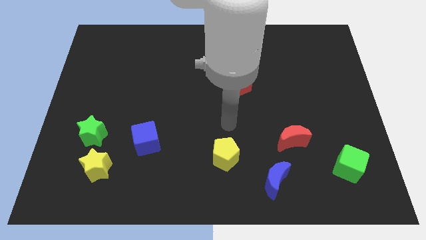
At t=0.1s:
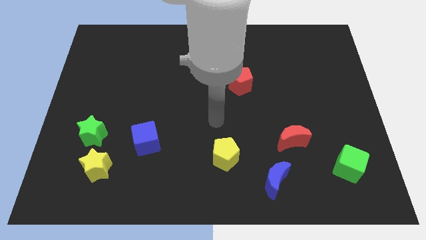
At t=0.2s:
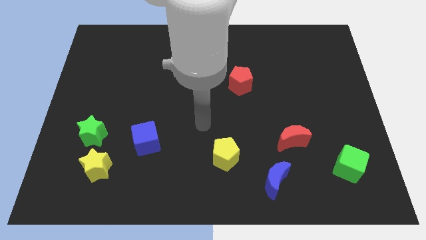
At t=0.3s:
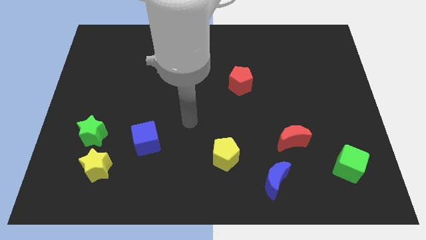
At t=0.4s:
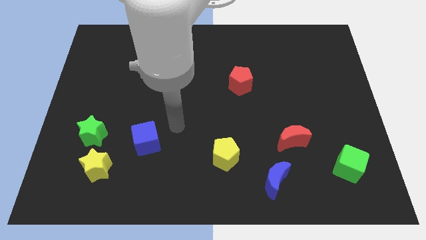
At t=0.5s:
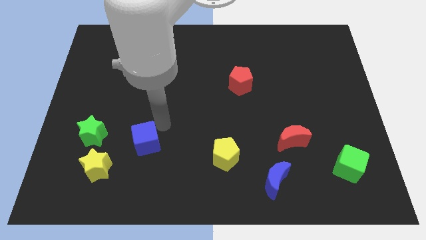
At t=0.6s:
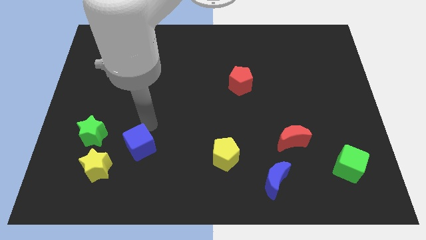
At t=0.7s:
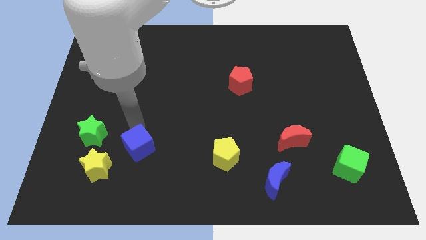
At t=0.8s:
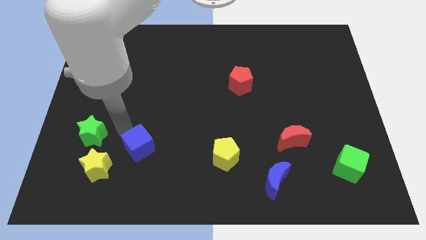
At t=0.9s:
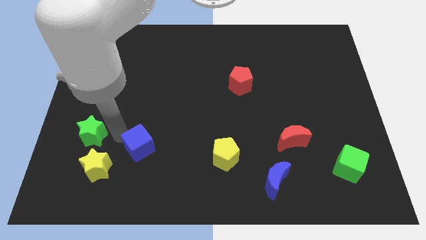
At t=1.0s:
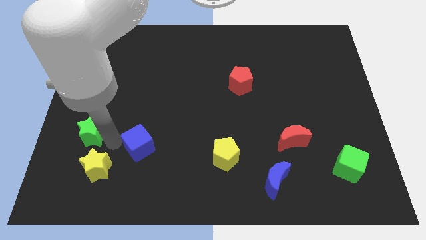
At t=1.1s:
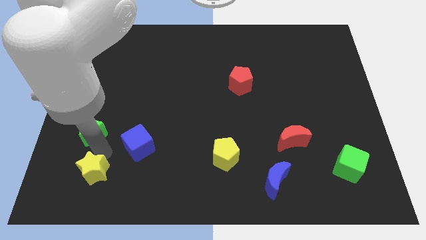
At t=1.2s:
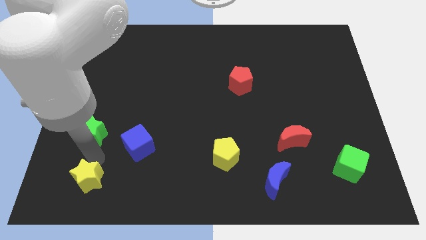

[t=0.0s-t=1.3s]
pull the green star apart from the yellow star

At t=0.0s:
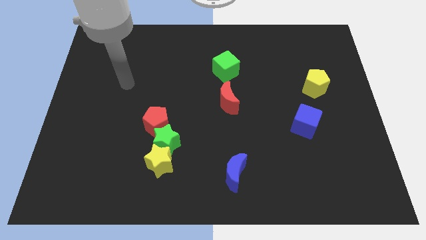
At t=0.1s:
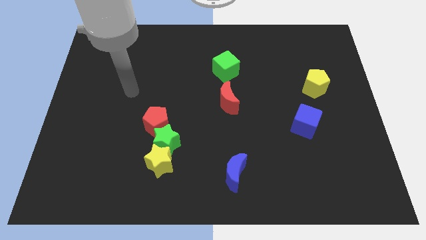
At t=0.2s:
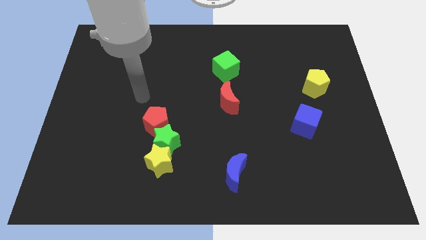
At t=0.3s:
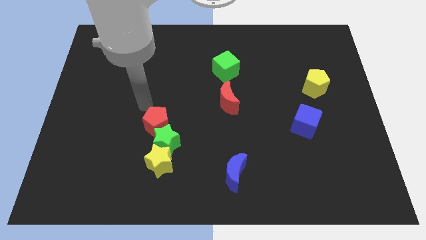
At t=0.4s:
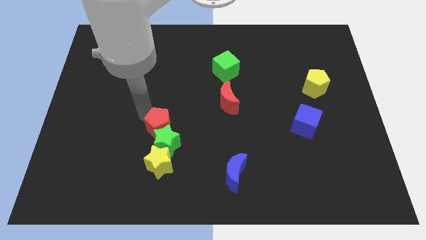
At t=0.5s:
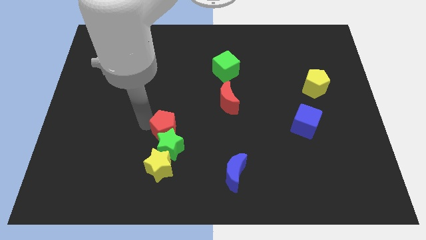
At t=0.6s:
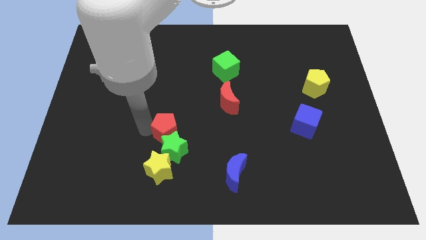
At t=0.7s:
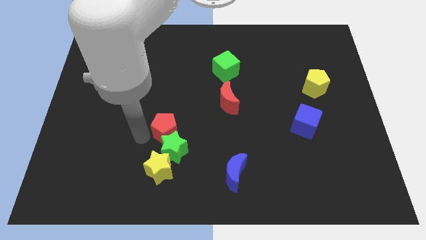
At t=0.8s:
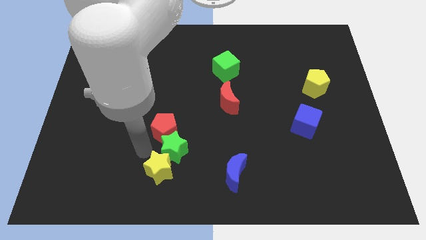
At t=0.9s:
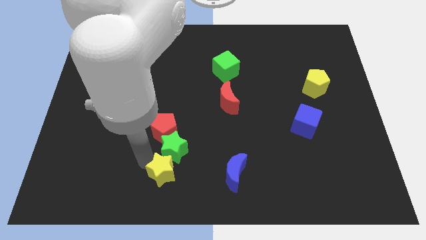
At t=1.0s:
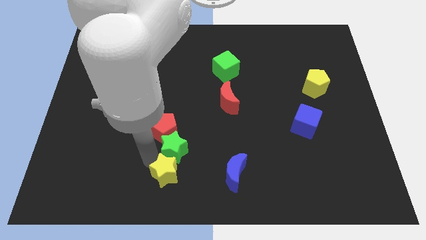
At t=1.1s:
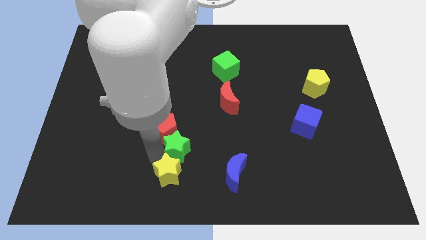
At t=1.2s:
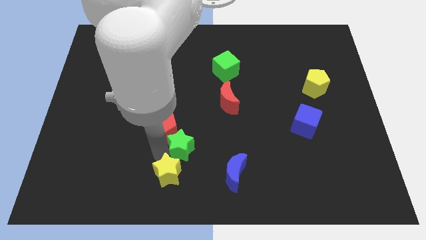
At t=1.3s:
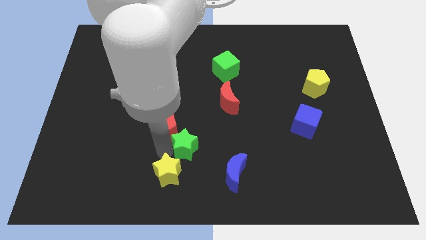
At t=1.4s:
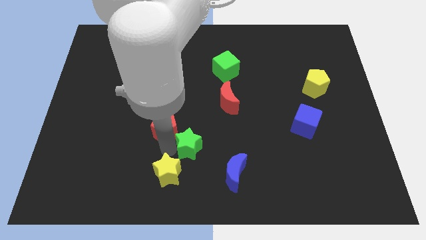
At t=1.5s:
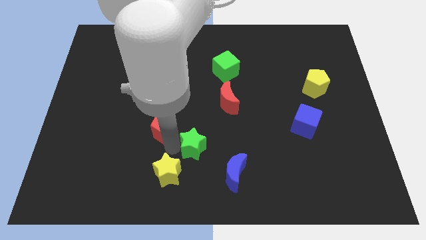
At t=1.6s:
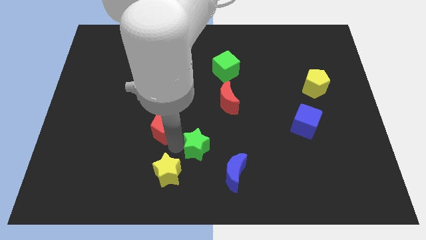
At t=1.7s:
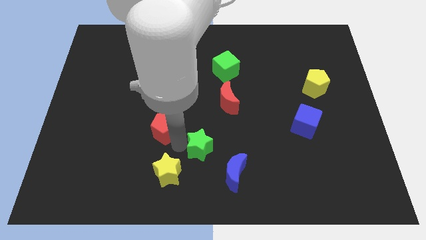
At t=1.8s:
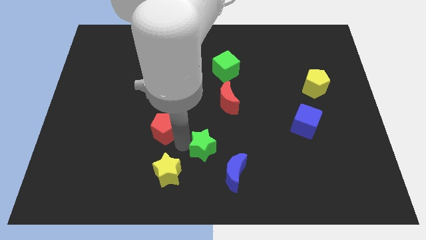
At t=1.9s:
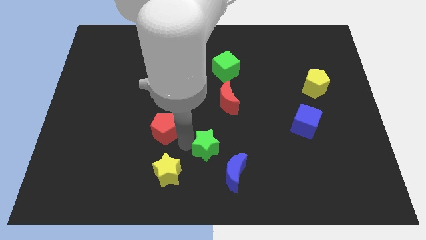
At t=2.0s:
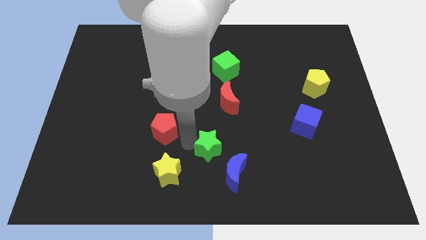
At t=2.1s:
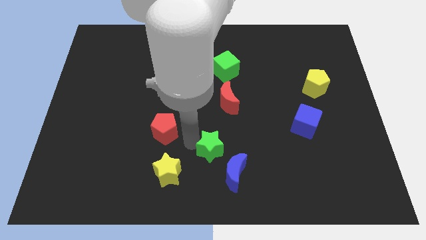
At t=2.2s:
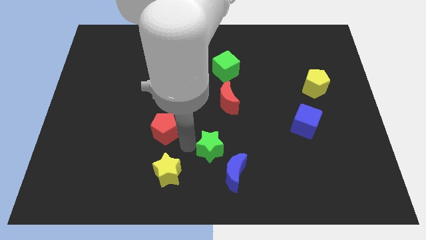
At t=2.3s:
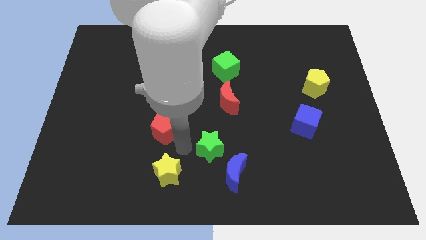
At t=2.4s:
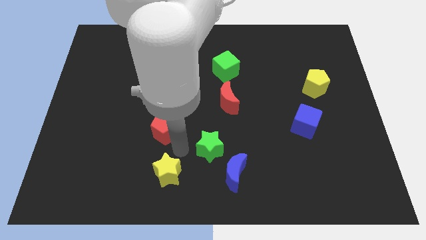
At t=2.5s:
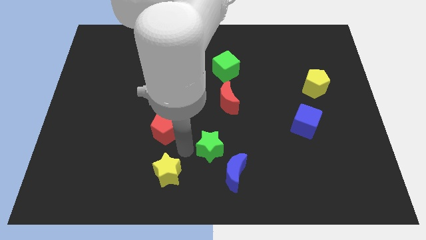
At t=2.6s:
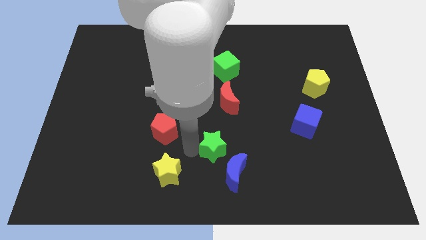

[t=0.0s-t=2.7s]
move the green star away from the yellow star and red pentagon

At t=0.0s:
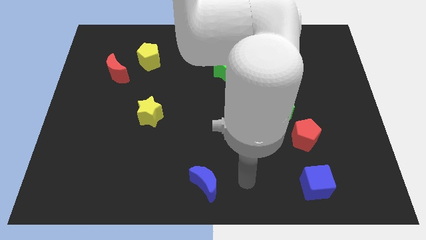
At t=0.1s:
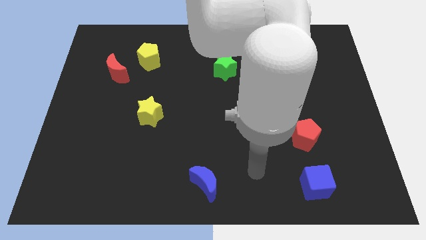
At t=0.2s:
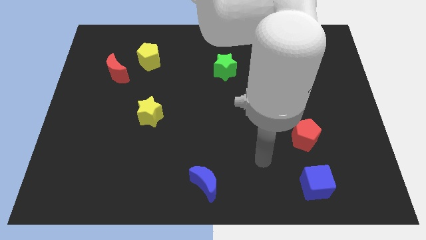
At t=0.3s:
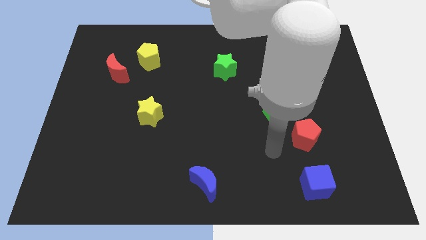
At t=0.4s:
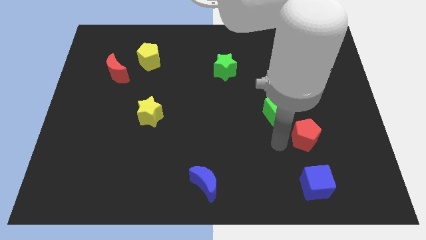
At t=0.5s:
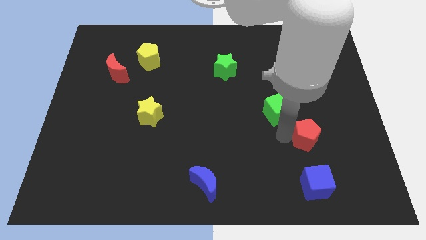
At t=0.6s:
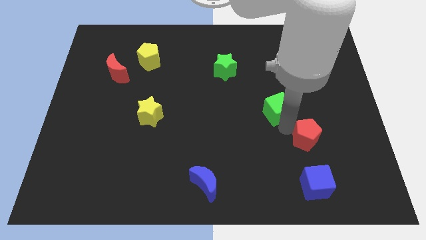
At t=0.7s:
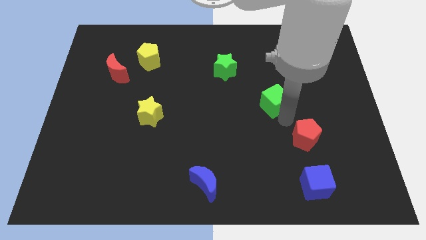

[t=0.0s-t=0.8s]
separate the red pentagon from the green cube

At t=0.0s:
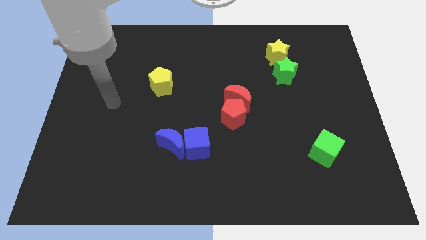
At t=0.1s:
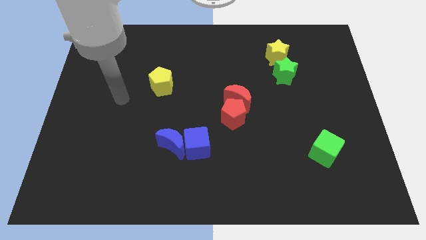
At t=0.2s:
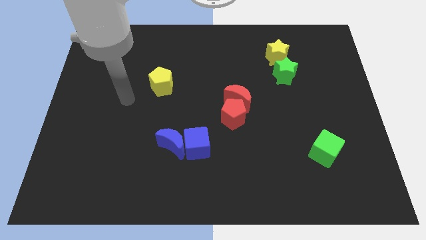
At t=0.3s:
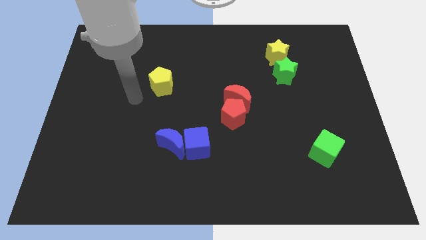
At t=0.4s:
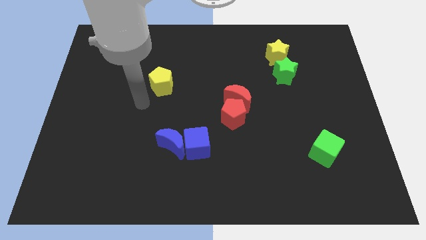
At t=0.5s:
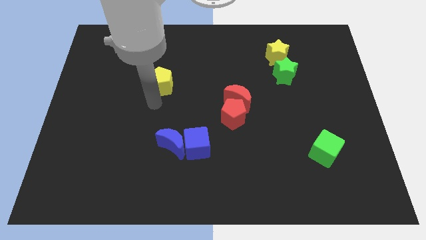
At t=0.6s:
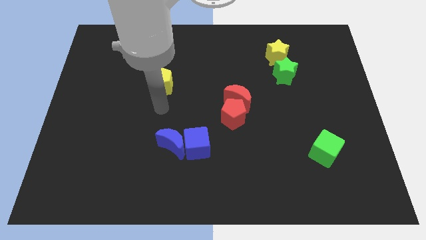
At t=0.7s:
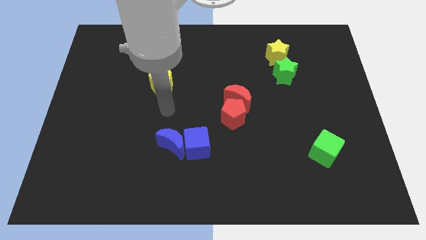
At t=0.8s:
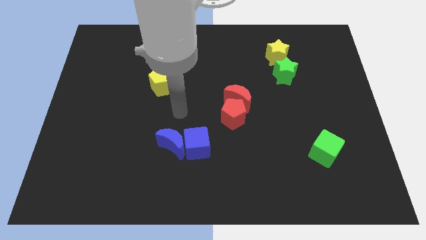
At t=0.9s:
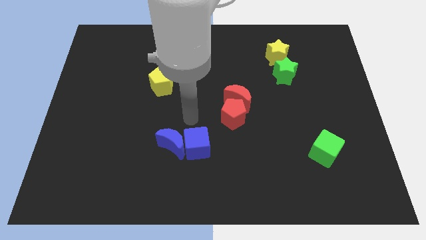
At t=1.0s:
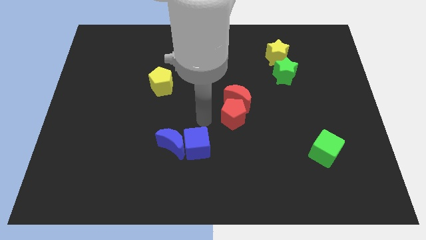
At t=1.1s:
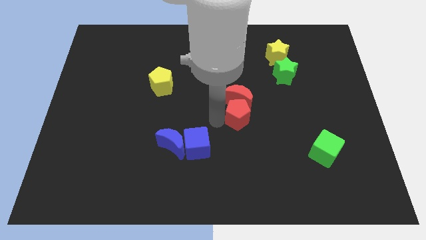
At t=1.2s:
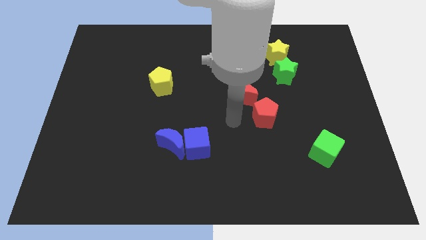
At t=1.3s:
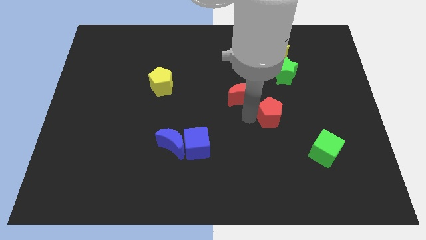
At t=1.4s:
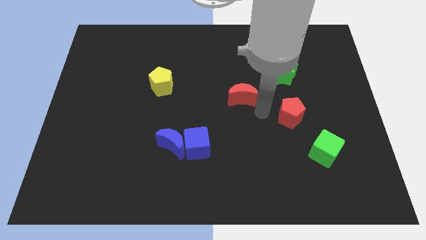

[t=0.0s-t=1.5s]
pull the red moon apart from the red pentagon

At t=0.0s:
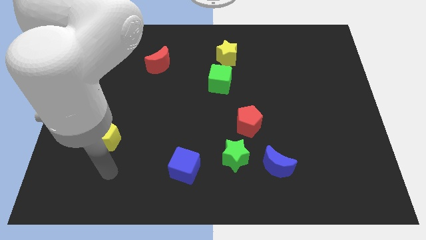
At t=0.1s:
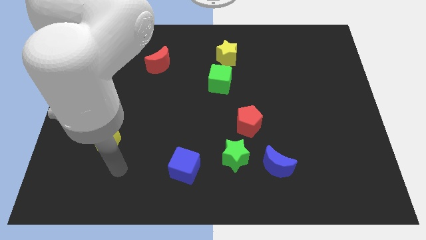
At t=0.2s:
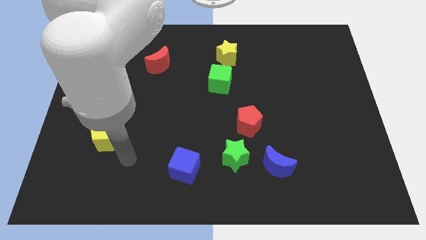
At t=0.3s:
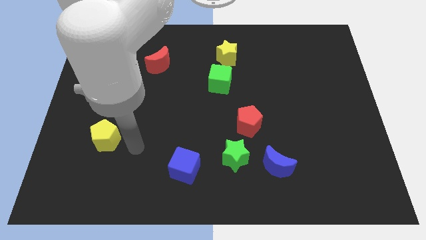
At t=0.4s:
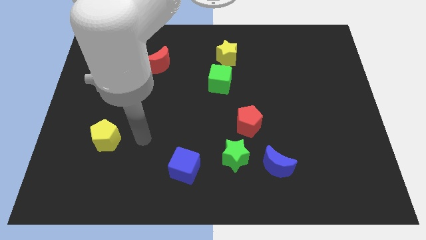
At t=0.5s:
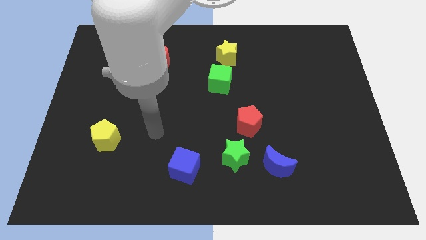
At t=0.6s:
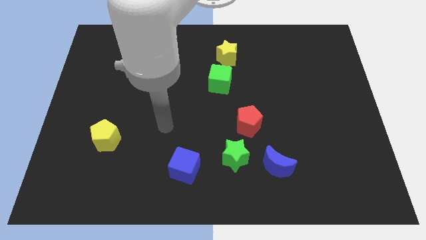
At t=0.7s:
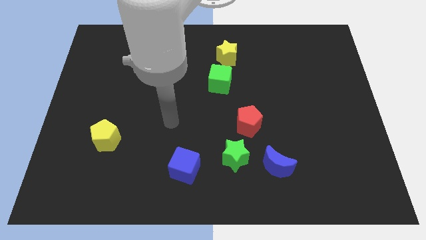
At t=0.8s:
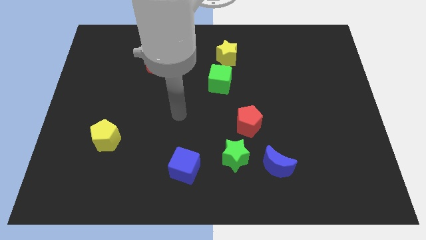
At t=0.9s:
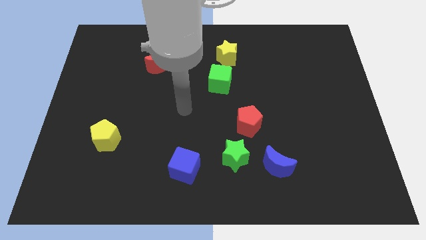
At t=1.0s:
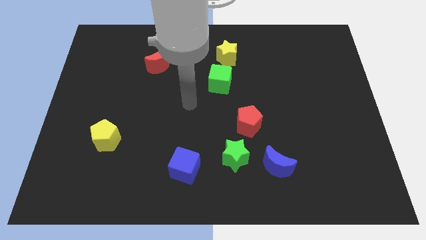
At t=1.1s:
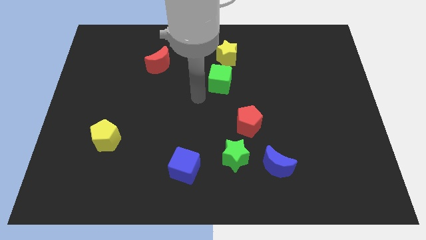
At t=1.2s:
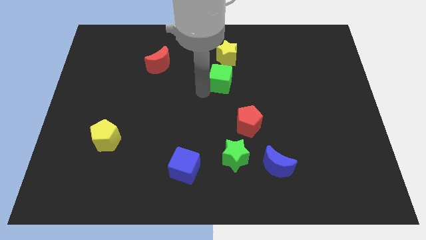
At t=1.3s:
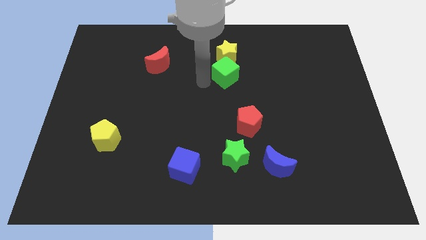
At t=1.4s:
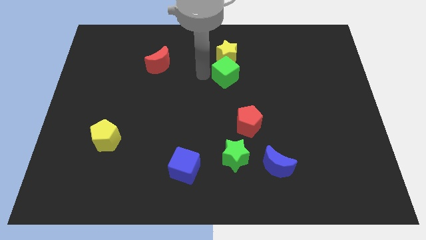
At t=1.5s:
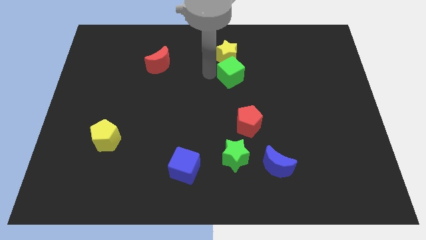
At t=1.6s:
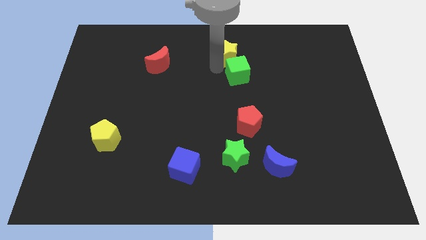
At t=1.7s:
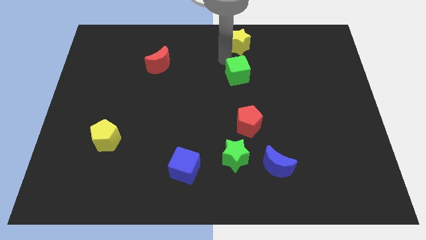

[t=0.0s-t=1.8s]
pull the green cube apart from the yellow star

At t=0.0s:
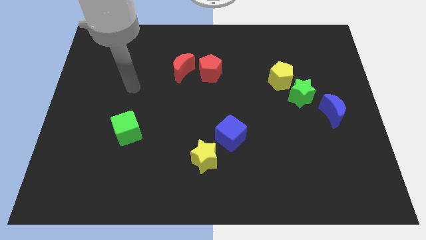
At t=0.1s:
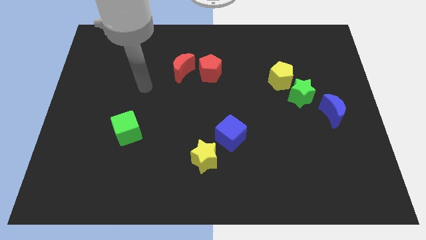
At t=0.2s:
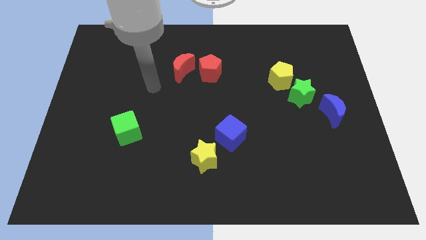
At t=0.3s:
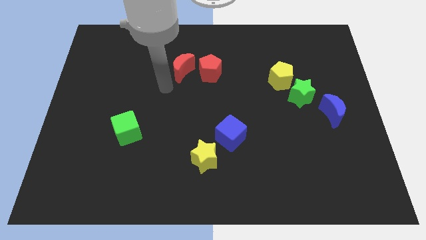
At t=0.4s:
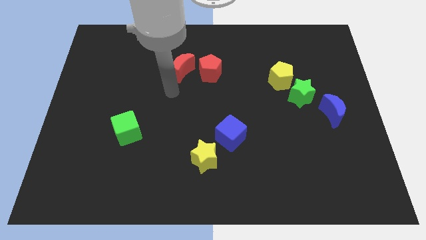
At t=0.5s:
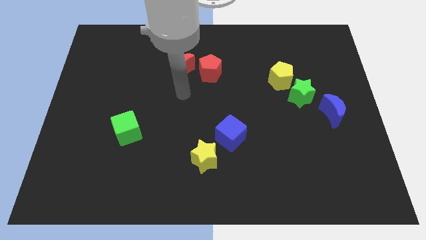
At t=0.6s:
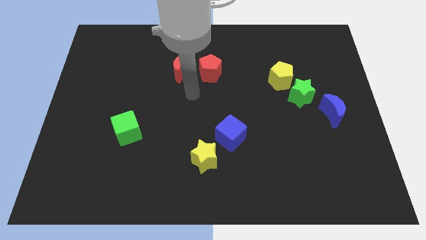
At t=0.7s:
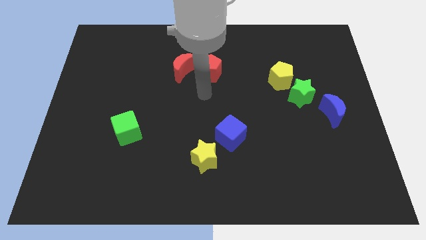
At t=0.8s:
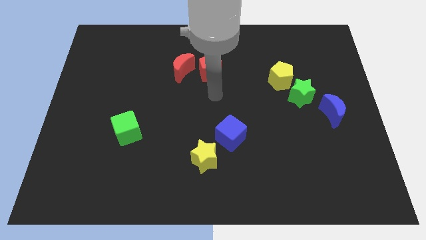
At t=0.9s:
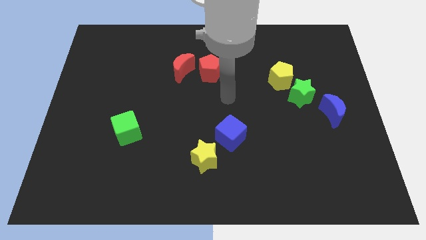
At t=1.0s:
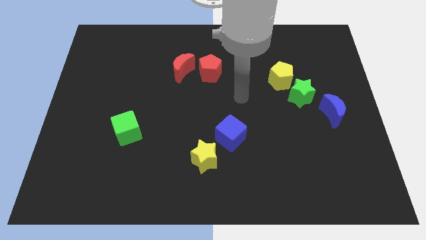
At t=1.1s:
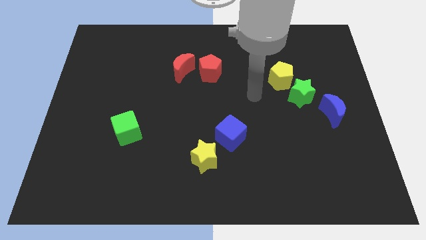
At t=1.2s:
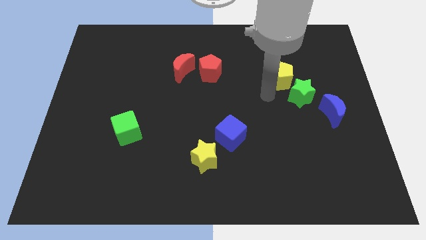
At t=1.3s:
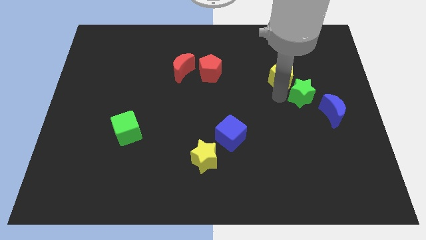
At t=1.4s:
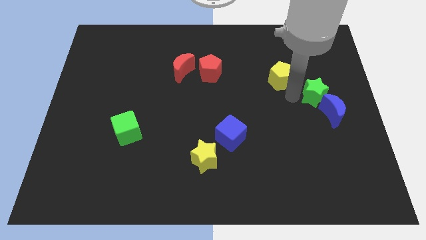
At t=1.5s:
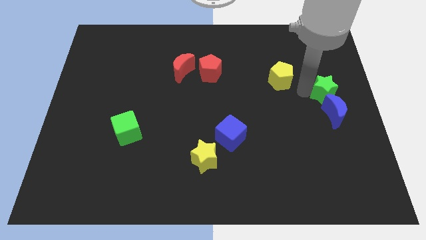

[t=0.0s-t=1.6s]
separate the yellow pentagon from the green star
